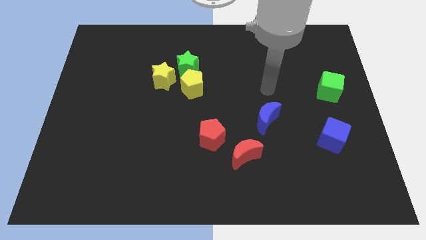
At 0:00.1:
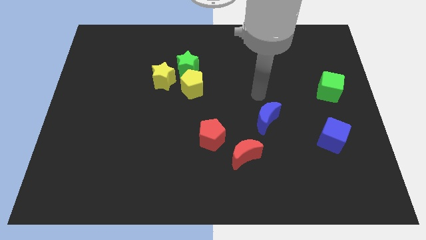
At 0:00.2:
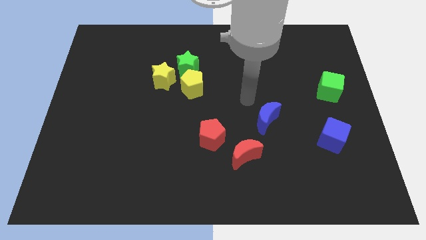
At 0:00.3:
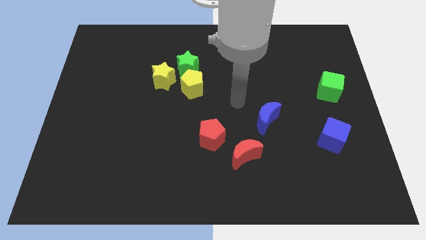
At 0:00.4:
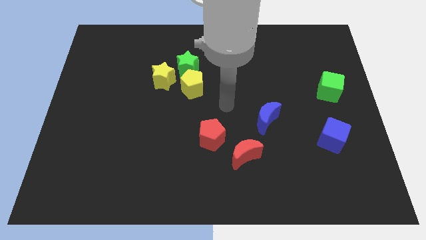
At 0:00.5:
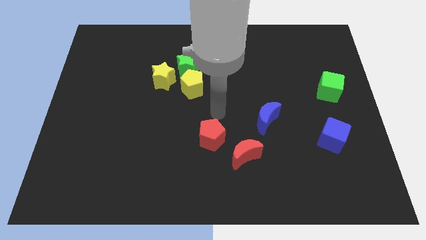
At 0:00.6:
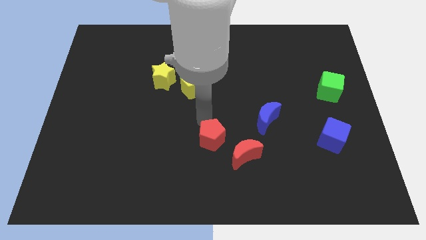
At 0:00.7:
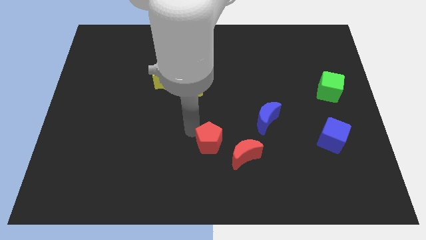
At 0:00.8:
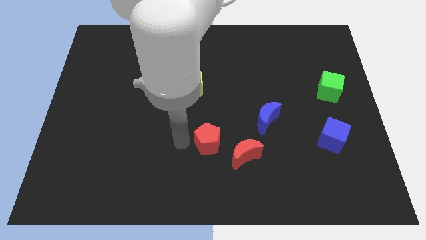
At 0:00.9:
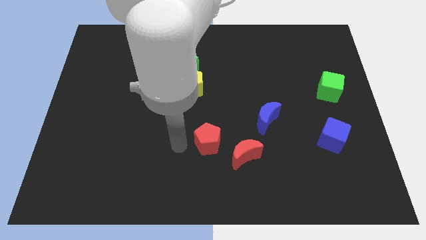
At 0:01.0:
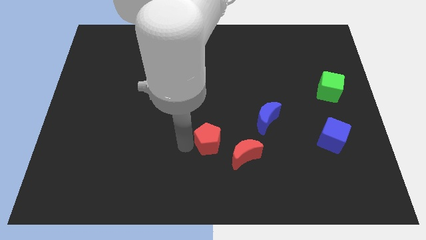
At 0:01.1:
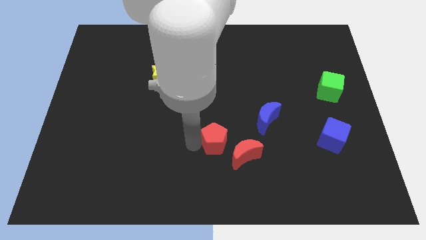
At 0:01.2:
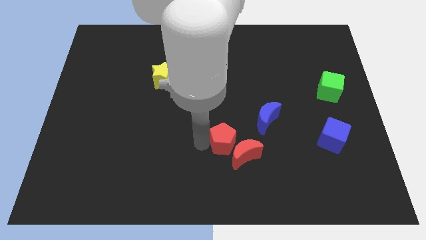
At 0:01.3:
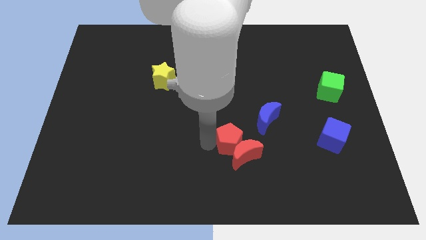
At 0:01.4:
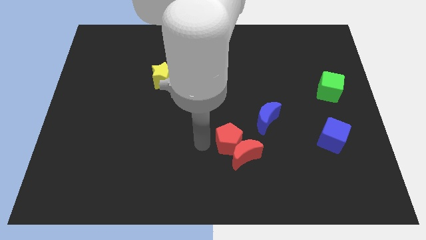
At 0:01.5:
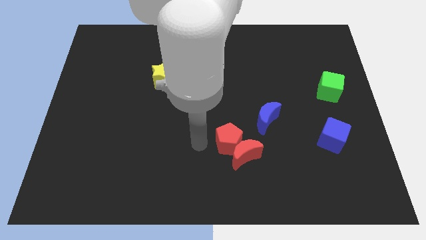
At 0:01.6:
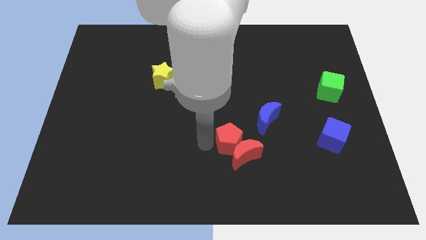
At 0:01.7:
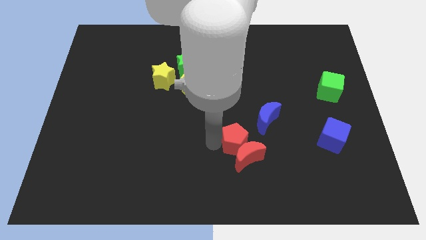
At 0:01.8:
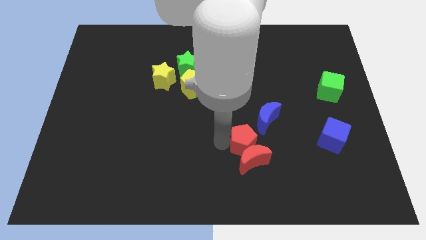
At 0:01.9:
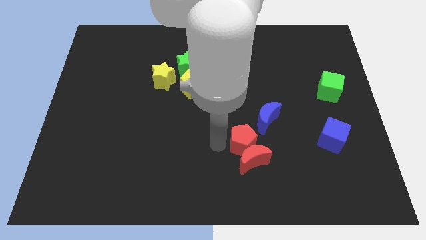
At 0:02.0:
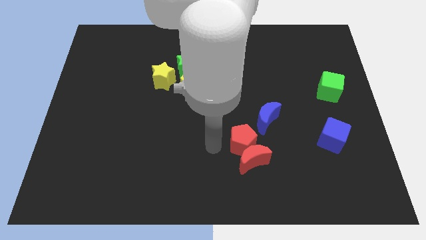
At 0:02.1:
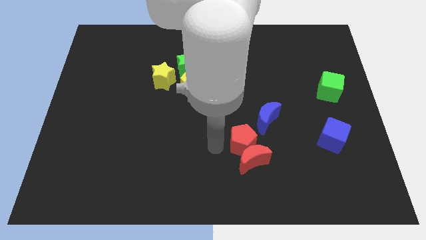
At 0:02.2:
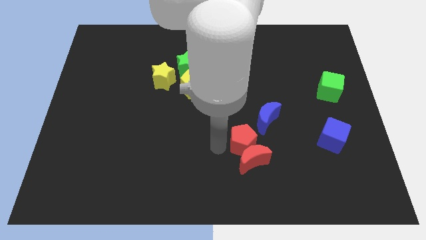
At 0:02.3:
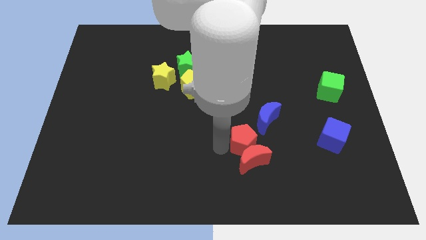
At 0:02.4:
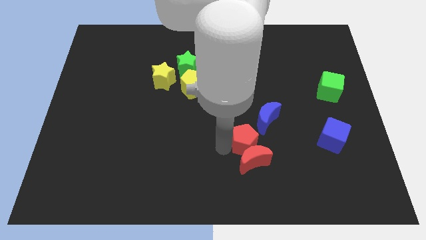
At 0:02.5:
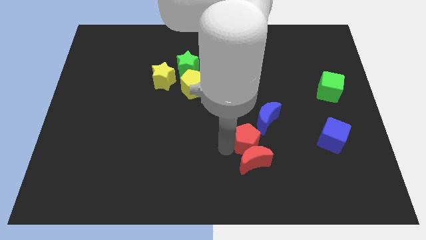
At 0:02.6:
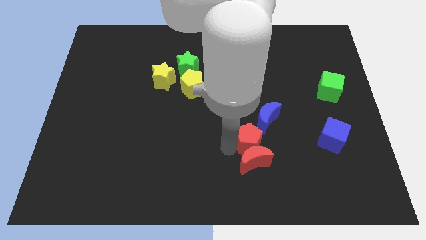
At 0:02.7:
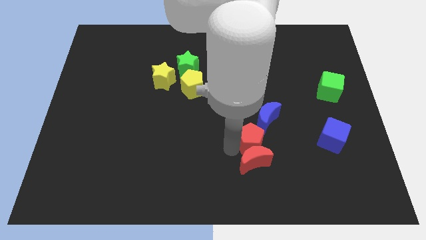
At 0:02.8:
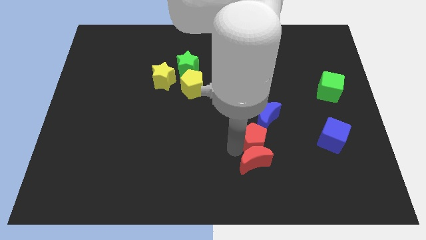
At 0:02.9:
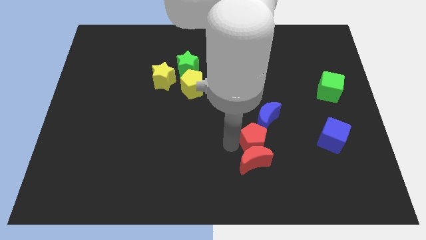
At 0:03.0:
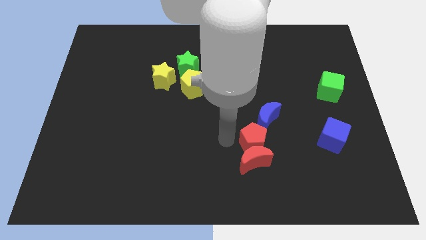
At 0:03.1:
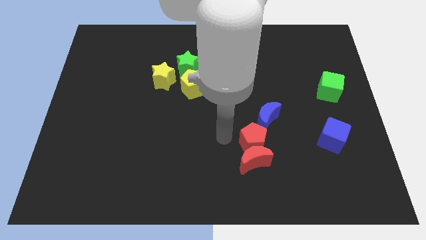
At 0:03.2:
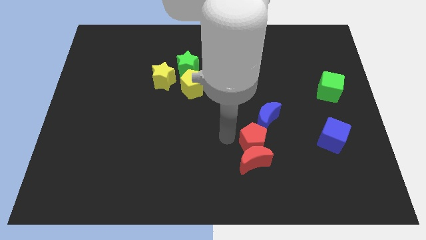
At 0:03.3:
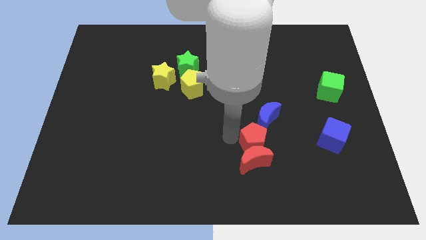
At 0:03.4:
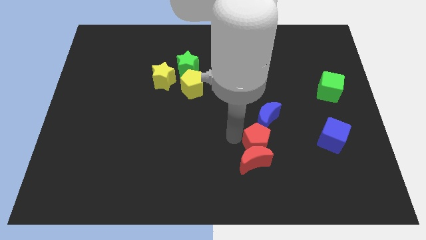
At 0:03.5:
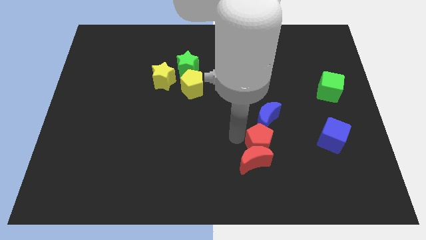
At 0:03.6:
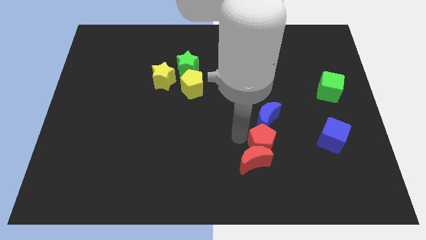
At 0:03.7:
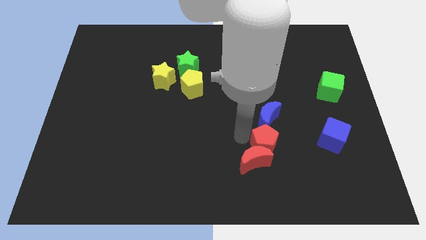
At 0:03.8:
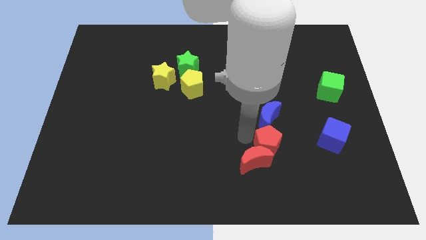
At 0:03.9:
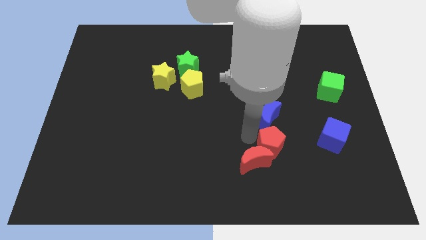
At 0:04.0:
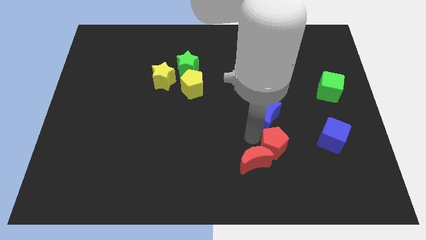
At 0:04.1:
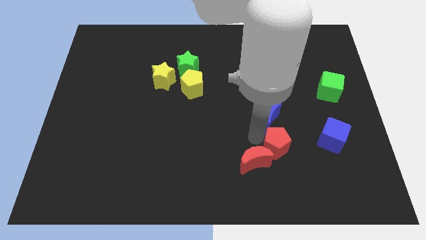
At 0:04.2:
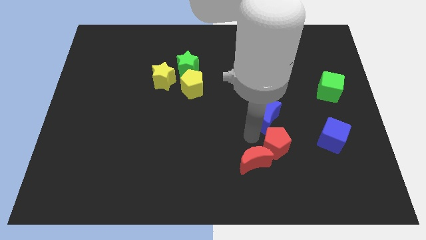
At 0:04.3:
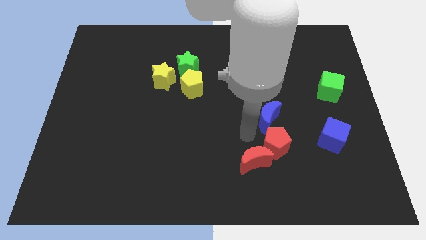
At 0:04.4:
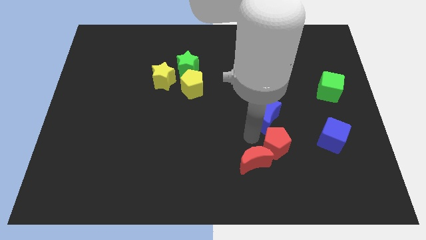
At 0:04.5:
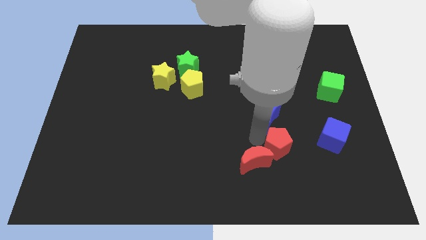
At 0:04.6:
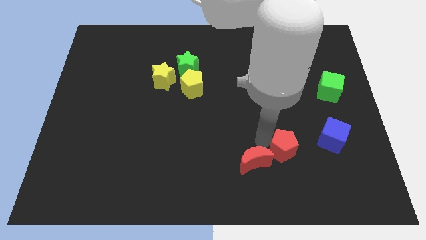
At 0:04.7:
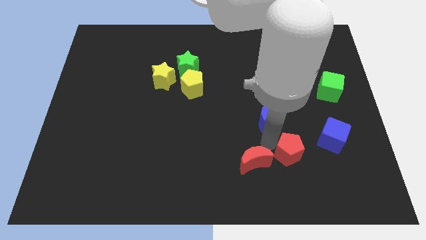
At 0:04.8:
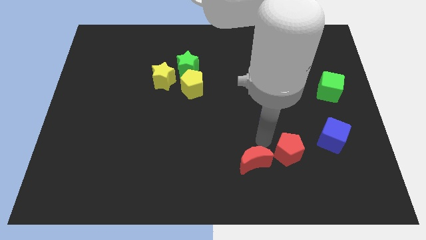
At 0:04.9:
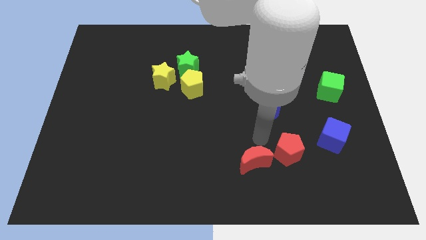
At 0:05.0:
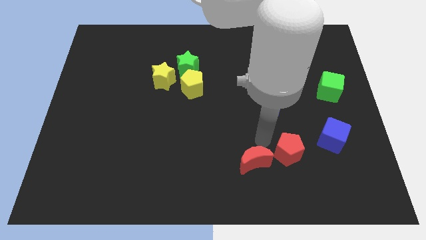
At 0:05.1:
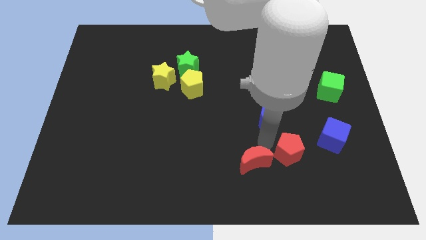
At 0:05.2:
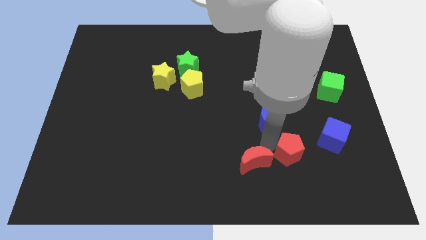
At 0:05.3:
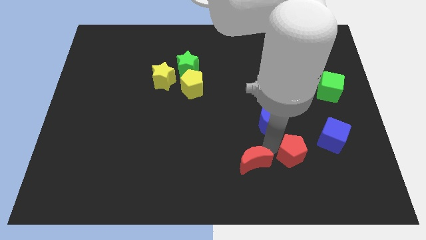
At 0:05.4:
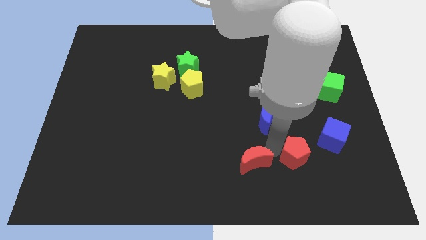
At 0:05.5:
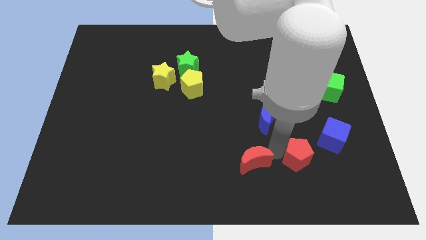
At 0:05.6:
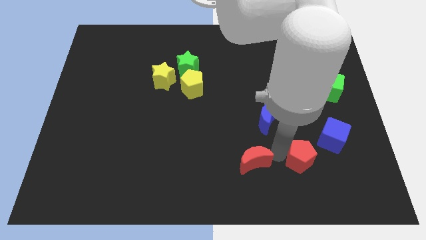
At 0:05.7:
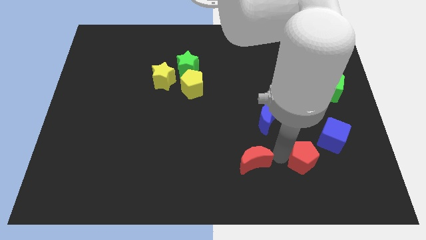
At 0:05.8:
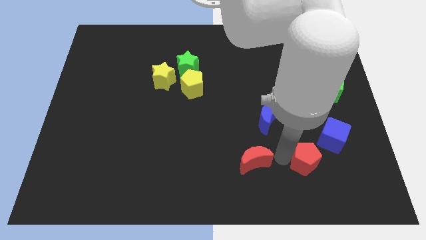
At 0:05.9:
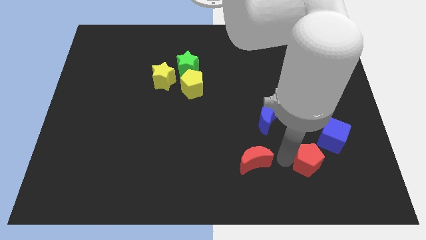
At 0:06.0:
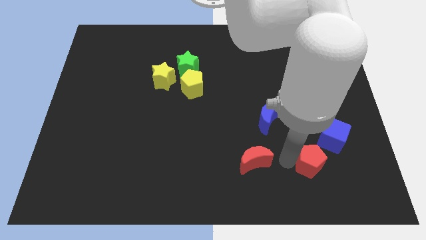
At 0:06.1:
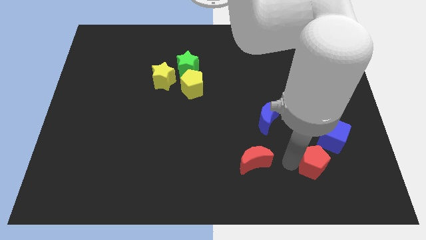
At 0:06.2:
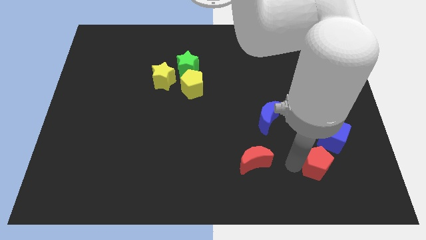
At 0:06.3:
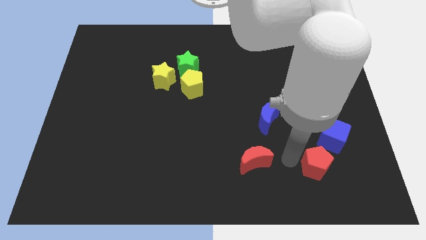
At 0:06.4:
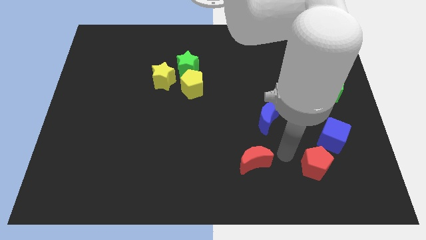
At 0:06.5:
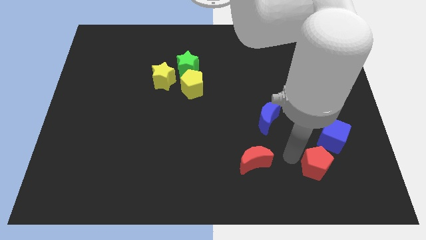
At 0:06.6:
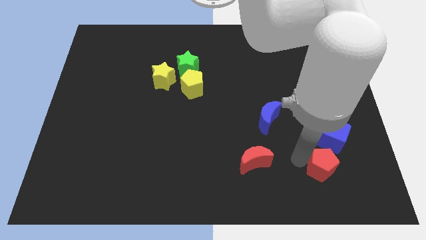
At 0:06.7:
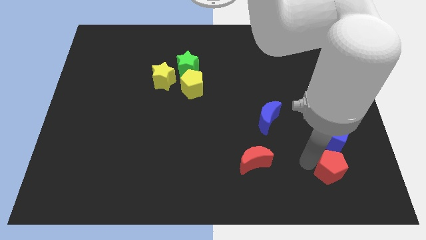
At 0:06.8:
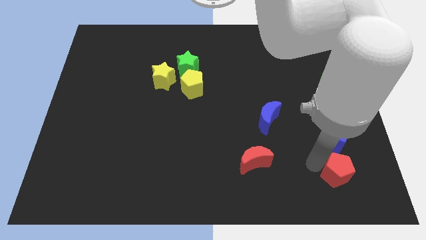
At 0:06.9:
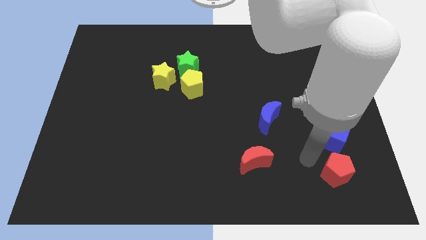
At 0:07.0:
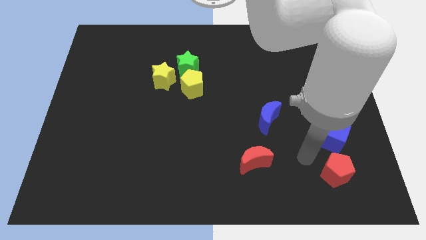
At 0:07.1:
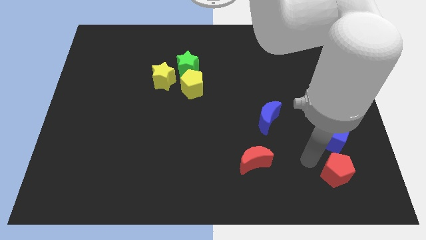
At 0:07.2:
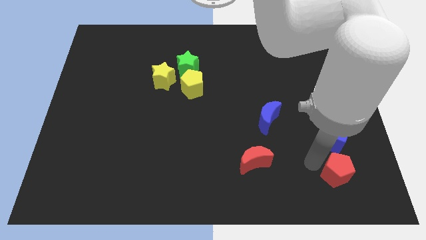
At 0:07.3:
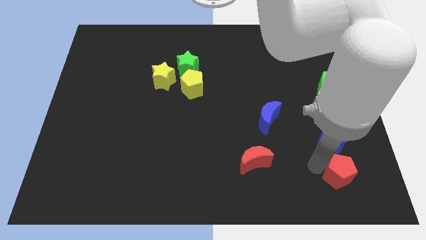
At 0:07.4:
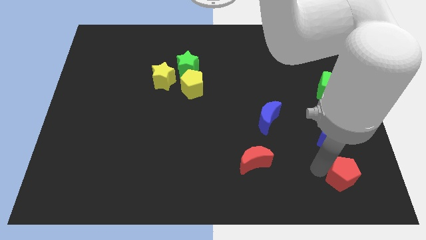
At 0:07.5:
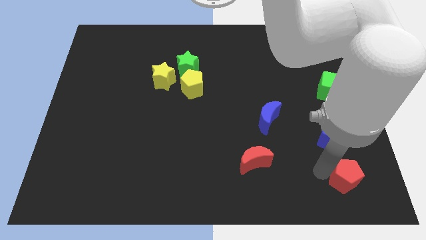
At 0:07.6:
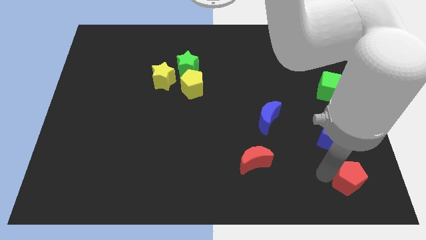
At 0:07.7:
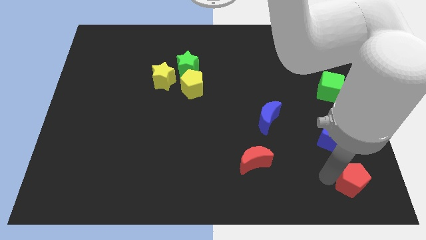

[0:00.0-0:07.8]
move the red pentagon to the bottom right
